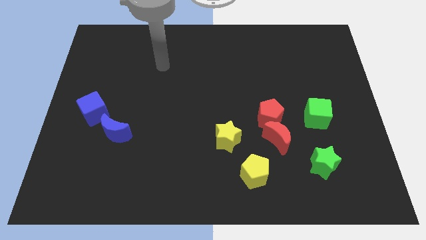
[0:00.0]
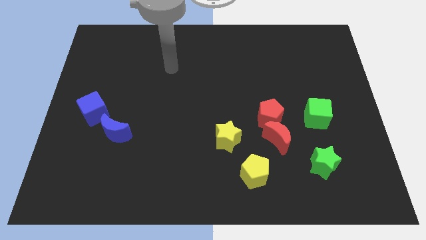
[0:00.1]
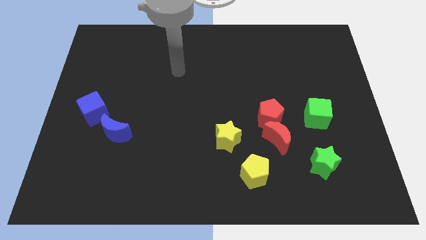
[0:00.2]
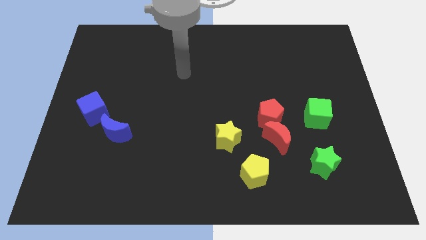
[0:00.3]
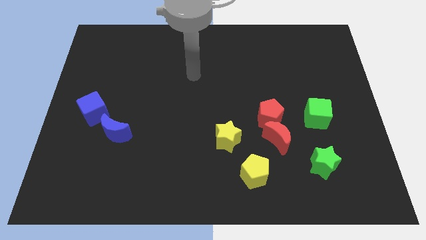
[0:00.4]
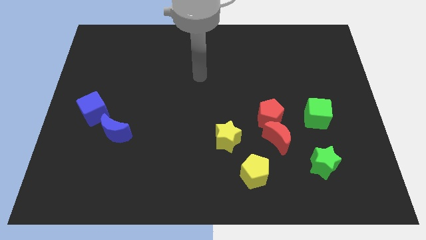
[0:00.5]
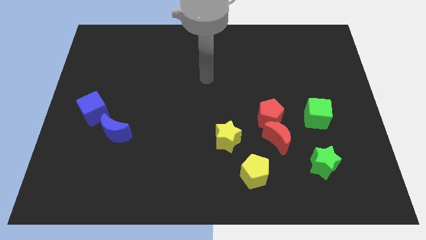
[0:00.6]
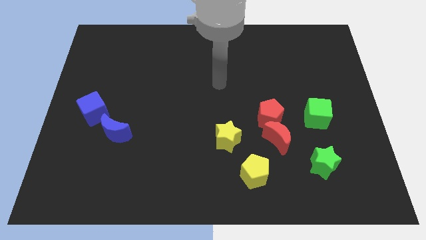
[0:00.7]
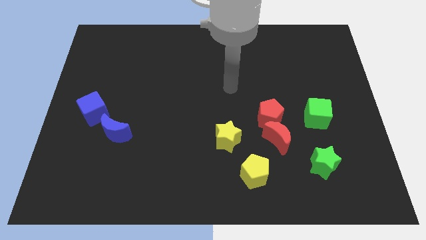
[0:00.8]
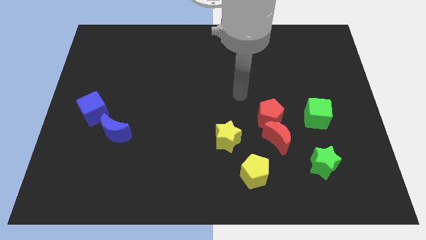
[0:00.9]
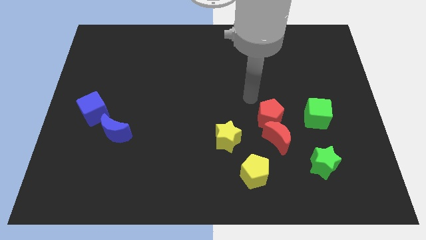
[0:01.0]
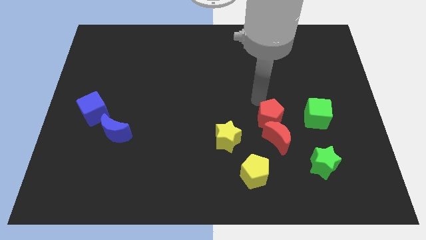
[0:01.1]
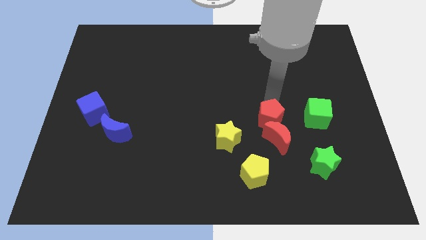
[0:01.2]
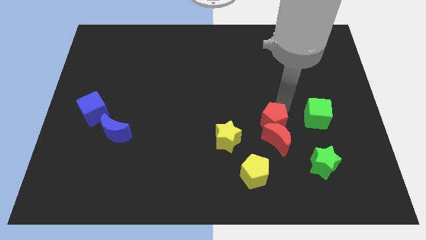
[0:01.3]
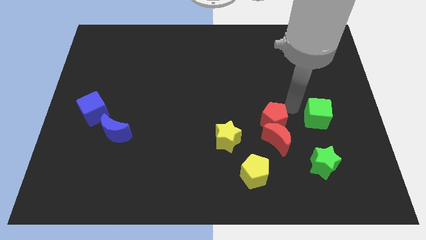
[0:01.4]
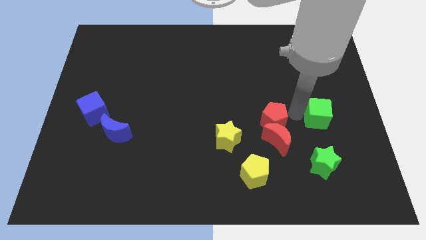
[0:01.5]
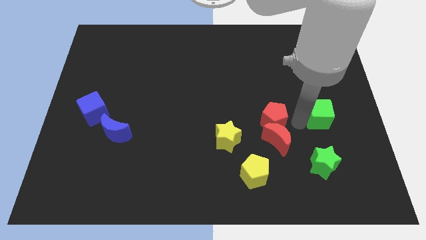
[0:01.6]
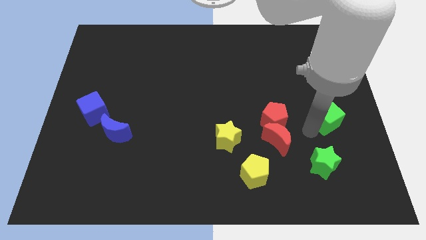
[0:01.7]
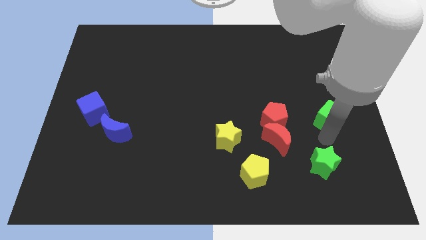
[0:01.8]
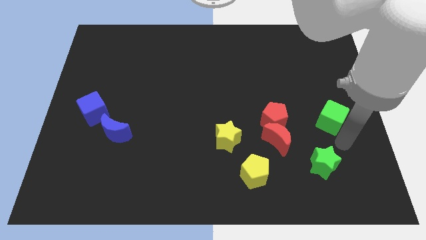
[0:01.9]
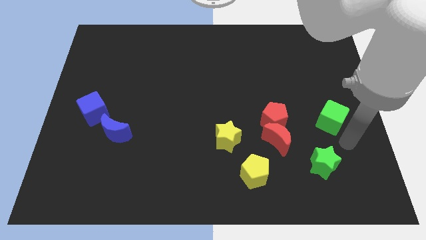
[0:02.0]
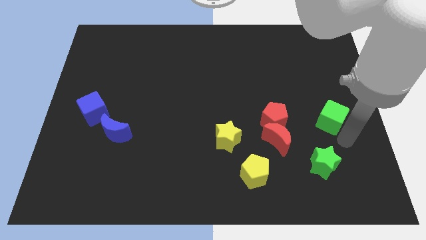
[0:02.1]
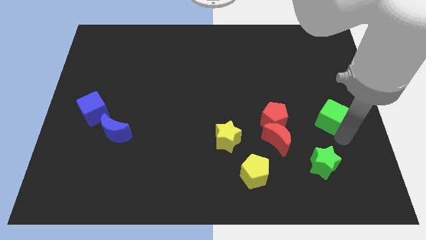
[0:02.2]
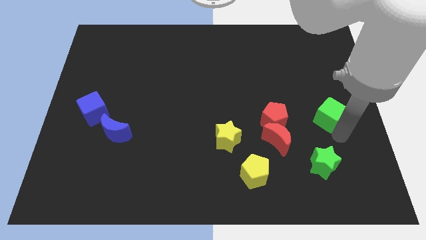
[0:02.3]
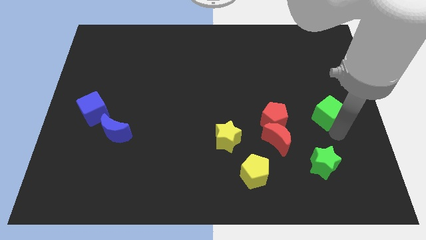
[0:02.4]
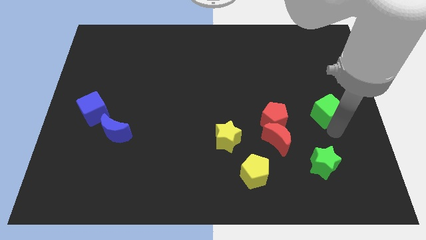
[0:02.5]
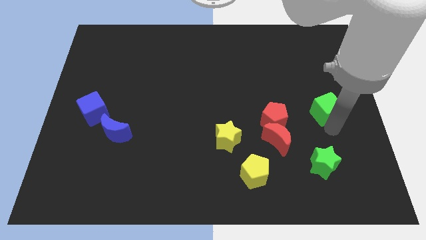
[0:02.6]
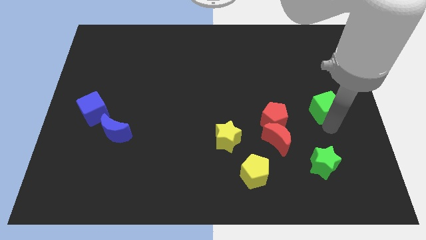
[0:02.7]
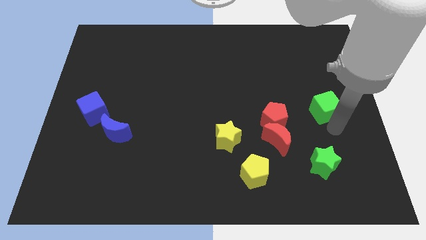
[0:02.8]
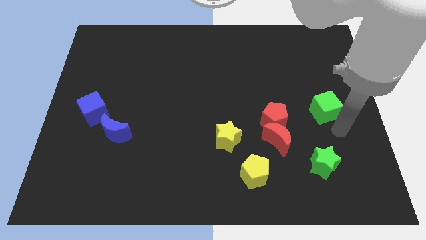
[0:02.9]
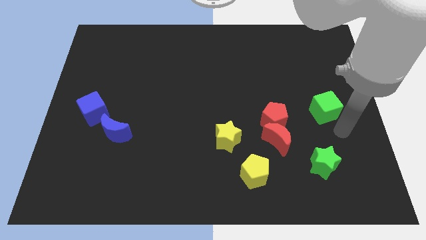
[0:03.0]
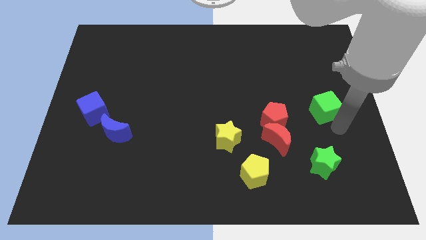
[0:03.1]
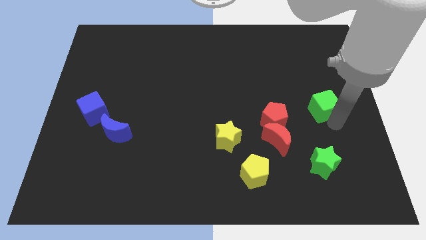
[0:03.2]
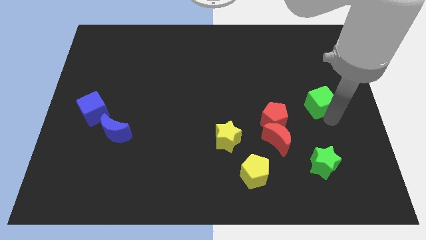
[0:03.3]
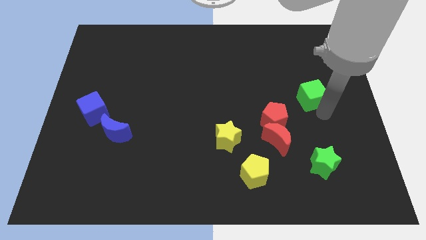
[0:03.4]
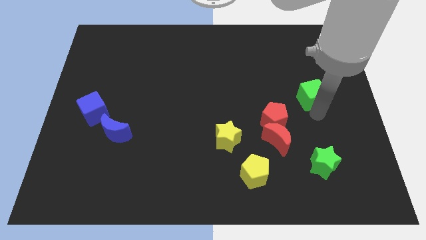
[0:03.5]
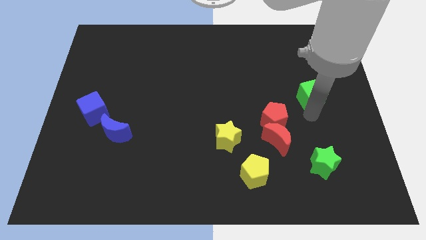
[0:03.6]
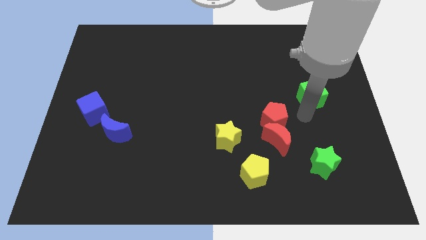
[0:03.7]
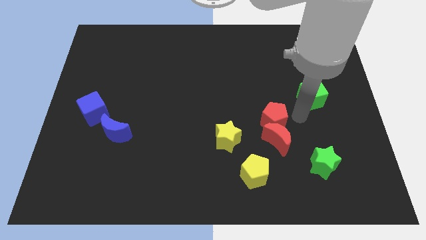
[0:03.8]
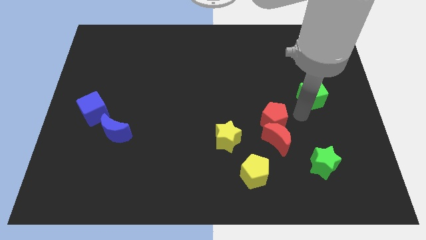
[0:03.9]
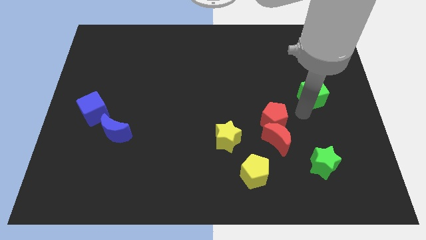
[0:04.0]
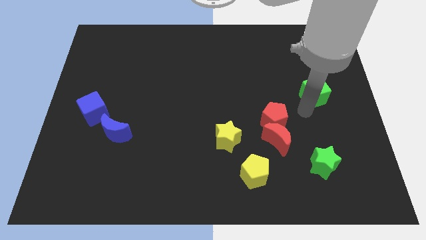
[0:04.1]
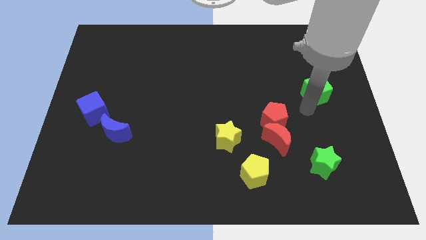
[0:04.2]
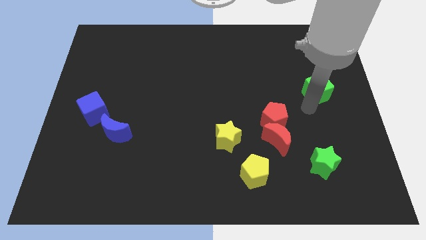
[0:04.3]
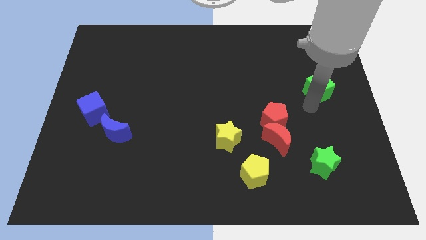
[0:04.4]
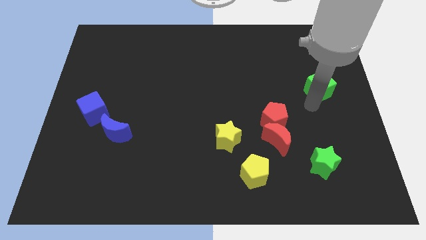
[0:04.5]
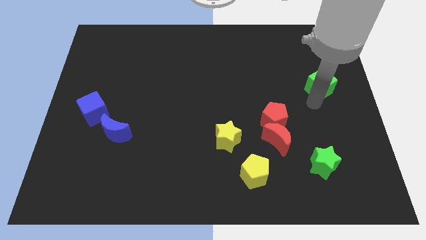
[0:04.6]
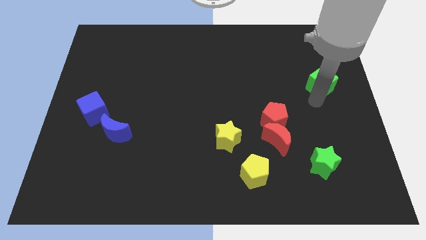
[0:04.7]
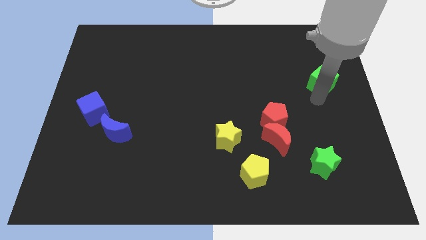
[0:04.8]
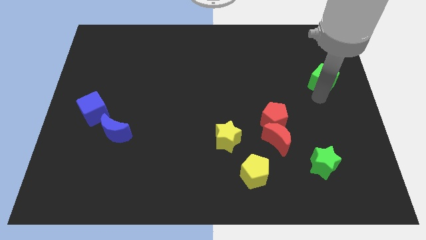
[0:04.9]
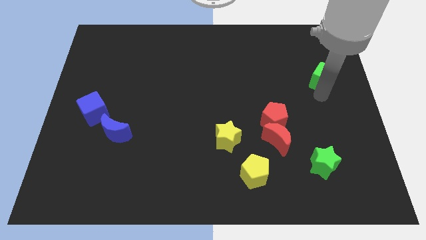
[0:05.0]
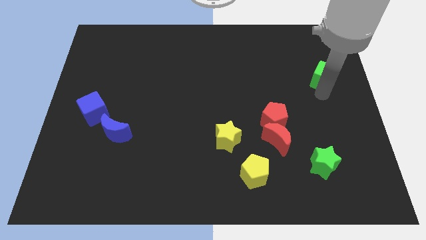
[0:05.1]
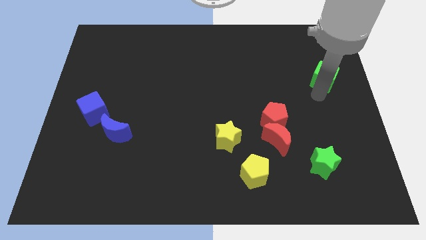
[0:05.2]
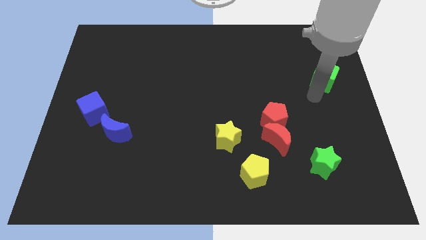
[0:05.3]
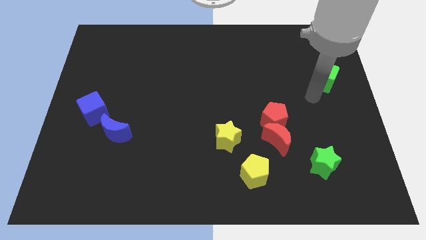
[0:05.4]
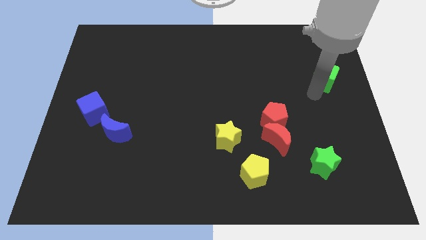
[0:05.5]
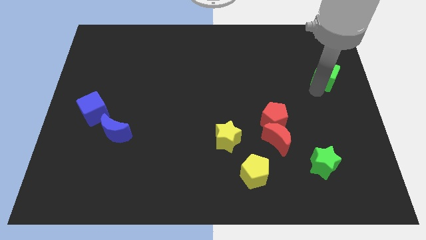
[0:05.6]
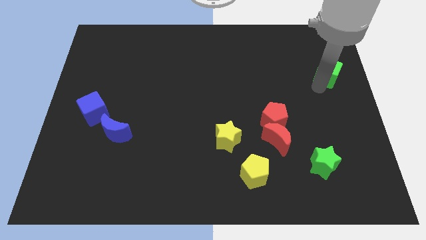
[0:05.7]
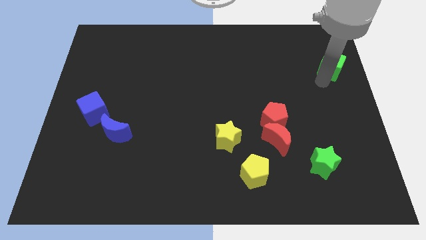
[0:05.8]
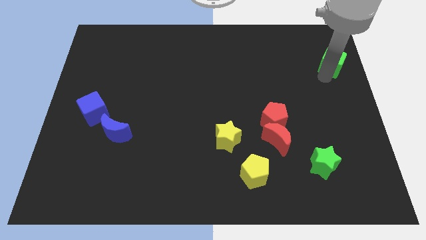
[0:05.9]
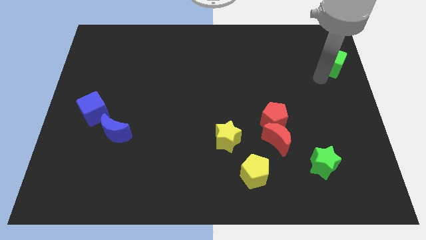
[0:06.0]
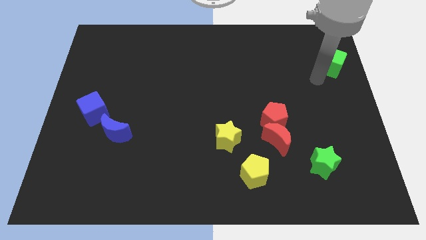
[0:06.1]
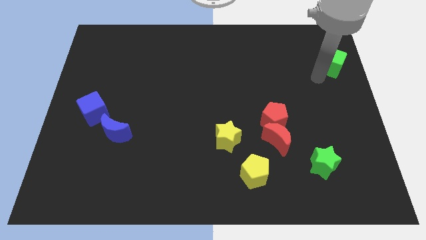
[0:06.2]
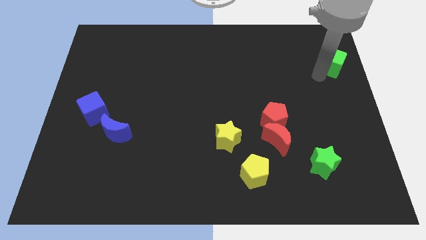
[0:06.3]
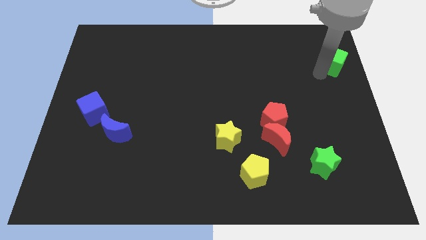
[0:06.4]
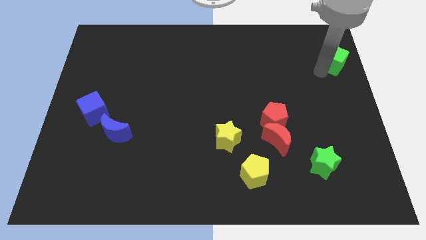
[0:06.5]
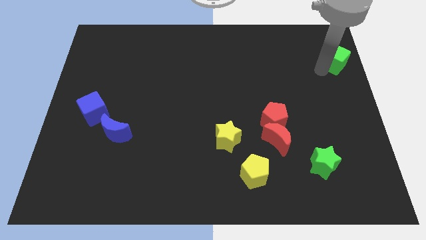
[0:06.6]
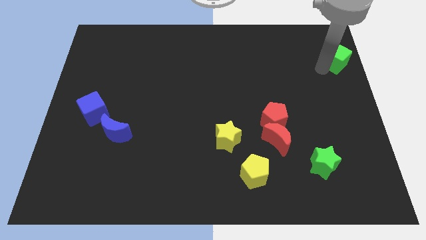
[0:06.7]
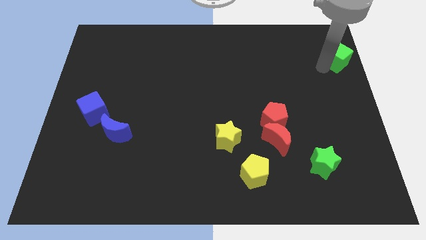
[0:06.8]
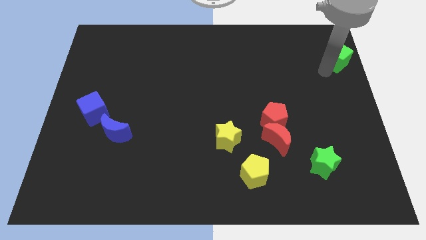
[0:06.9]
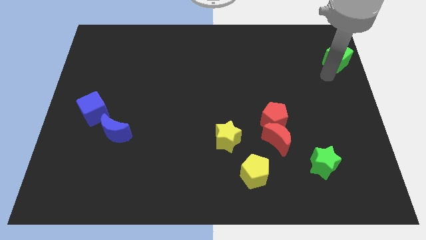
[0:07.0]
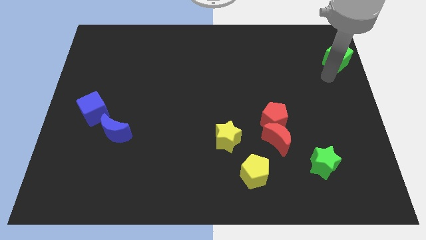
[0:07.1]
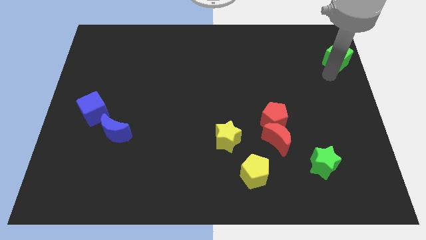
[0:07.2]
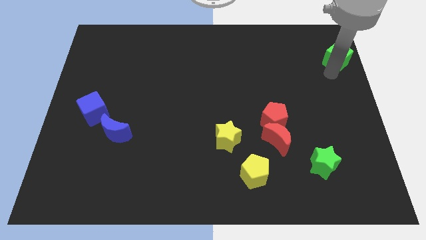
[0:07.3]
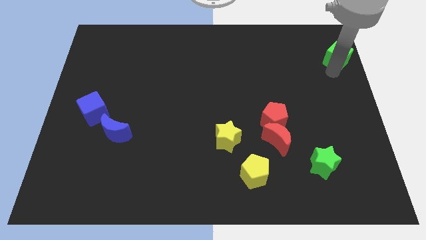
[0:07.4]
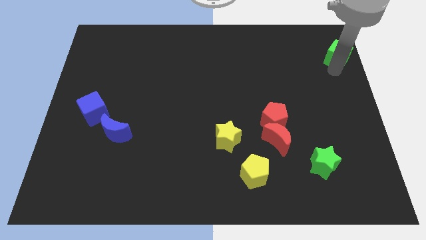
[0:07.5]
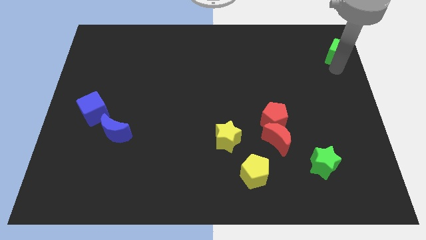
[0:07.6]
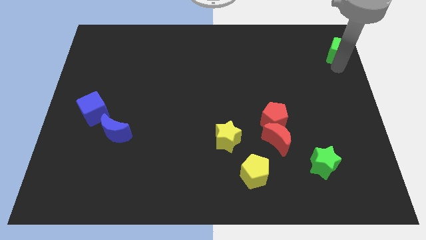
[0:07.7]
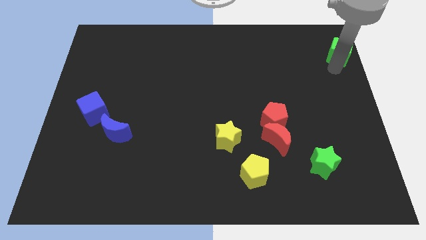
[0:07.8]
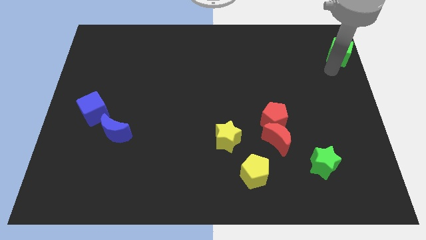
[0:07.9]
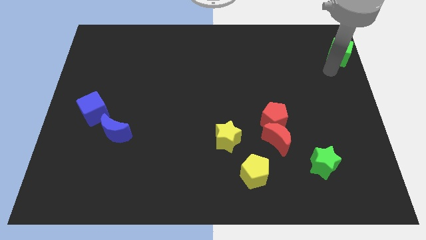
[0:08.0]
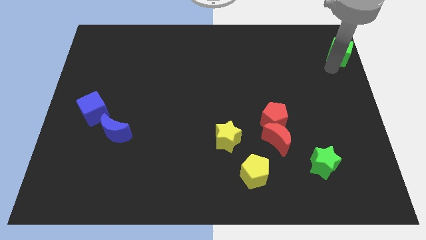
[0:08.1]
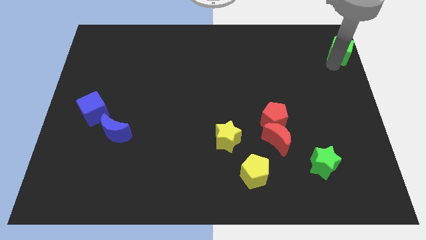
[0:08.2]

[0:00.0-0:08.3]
put the green cube to the top right of the board
